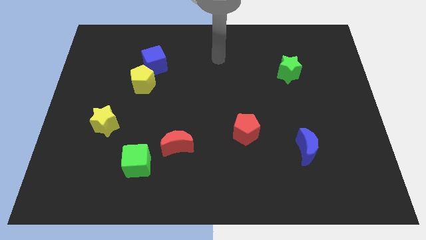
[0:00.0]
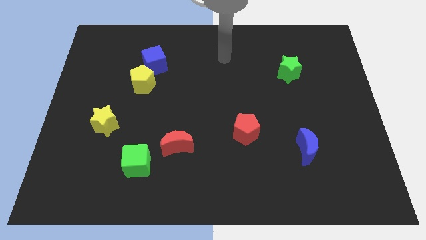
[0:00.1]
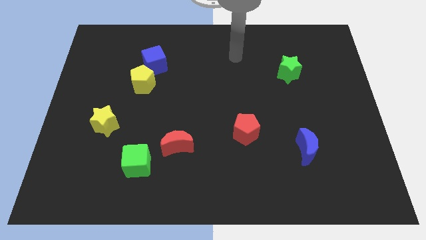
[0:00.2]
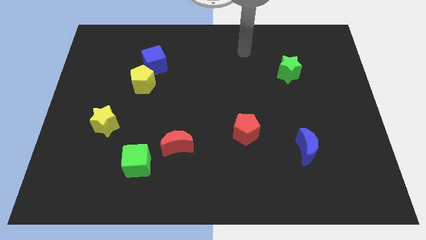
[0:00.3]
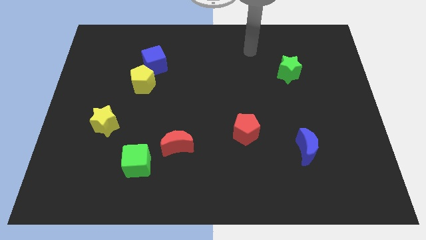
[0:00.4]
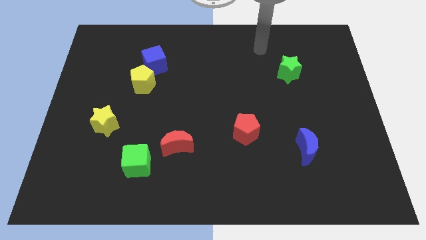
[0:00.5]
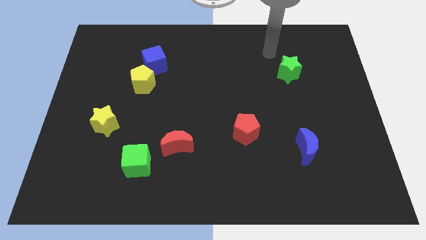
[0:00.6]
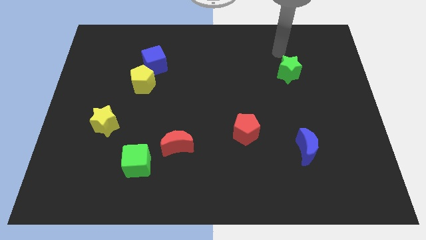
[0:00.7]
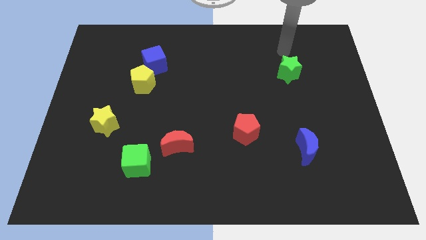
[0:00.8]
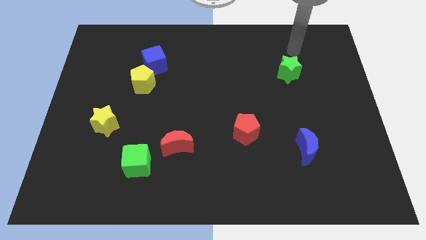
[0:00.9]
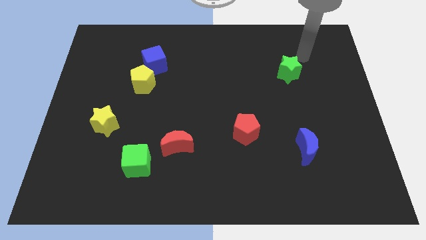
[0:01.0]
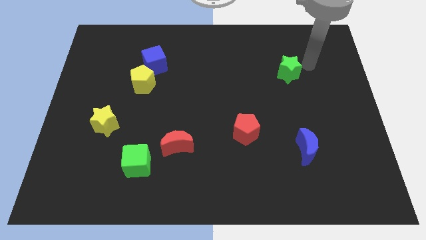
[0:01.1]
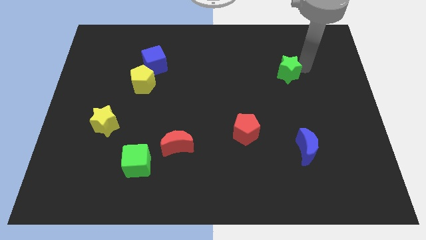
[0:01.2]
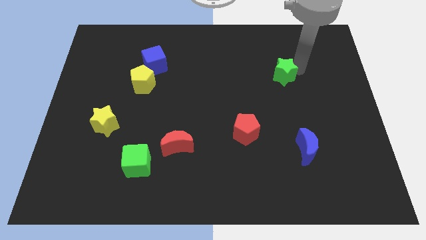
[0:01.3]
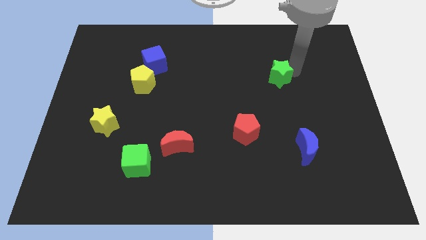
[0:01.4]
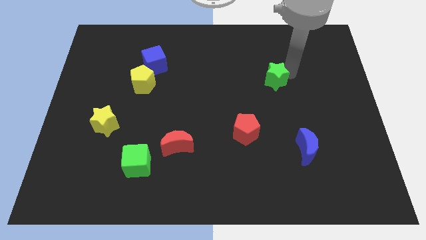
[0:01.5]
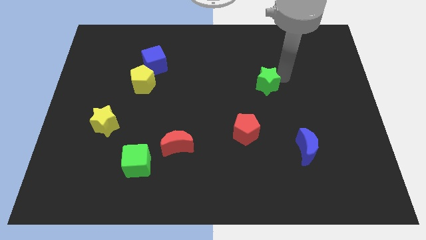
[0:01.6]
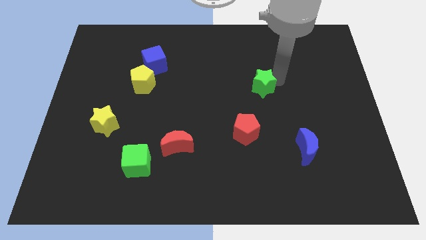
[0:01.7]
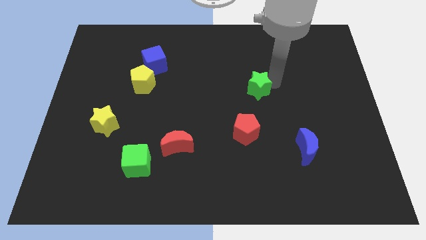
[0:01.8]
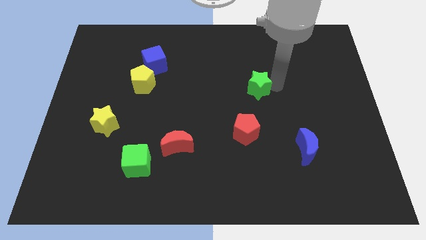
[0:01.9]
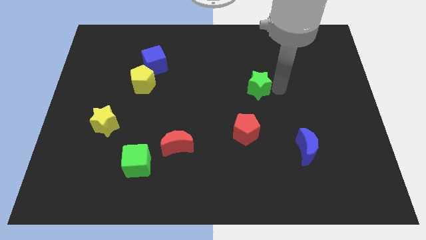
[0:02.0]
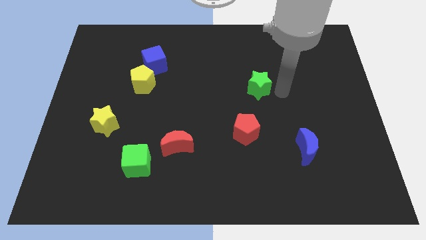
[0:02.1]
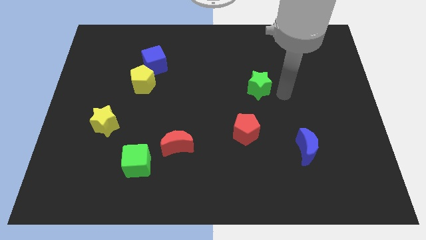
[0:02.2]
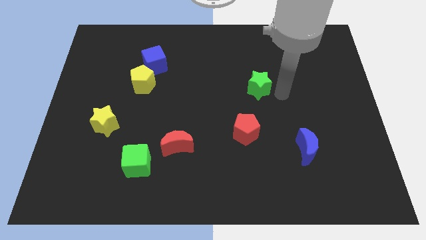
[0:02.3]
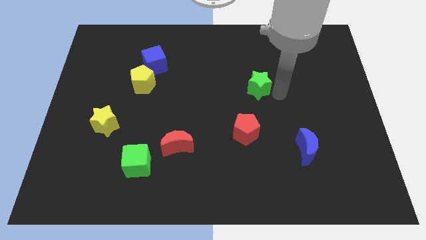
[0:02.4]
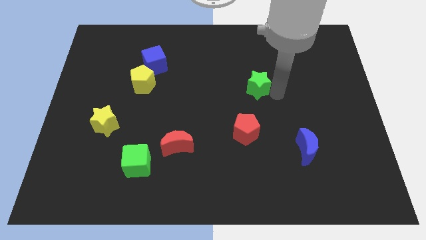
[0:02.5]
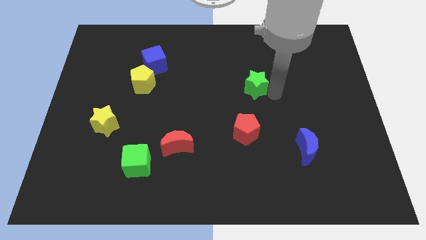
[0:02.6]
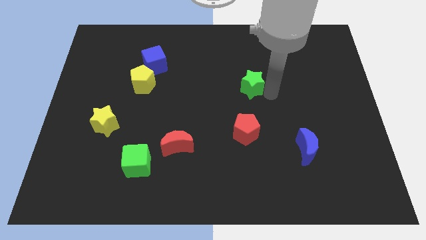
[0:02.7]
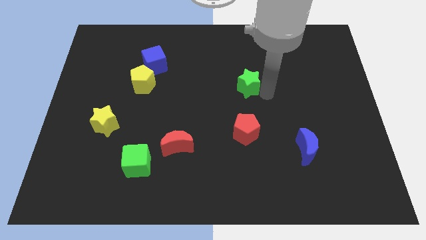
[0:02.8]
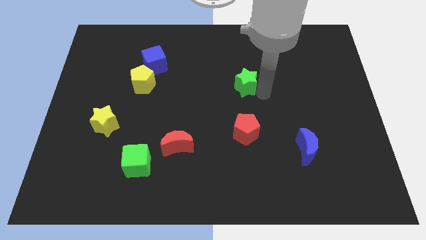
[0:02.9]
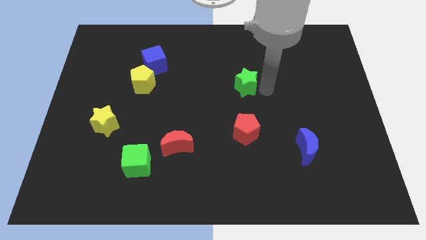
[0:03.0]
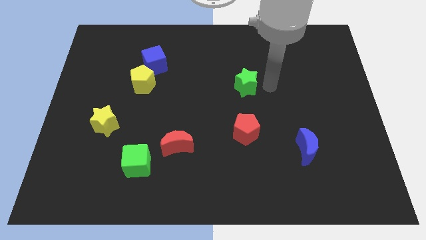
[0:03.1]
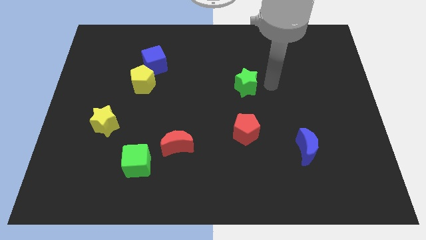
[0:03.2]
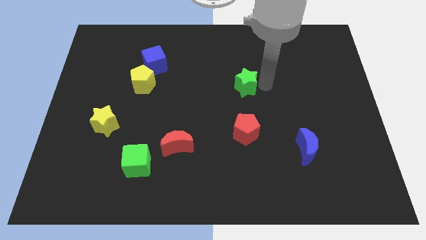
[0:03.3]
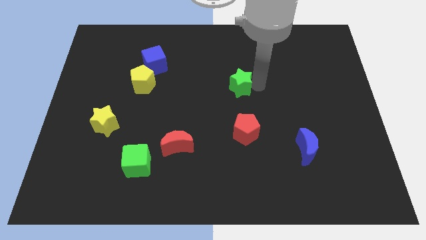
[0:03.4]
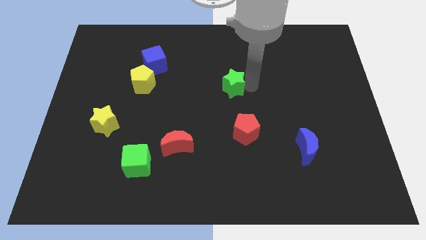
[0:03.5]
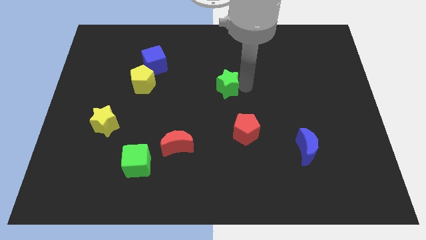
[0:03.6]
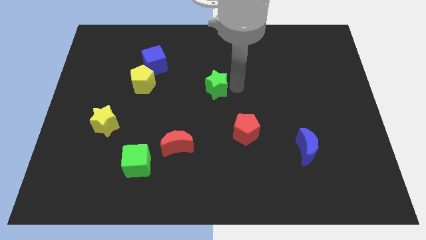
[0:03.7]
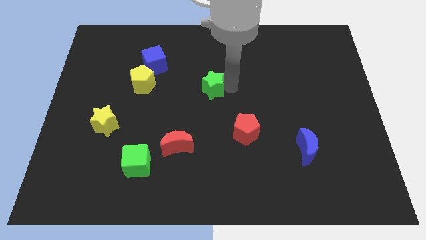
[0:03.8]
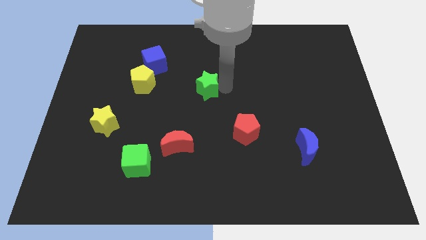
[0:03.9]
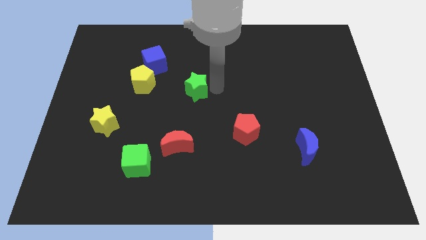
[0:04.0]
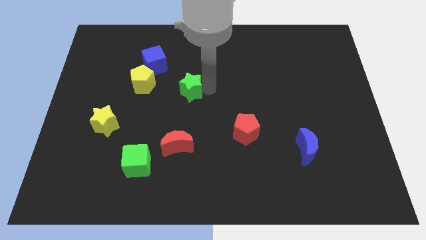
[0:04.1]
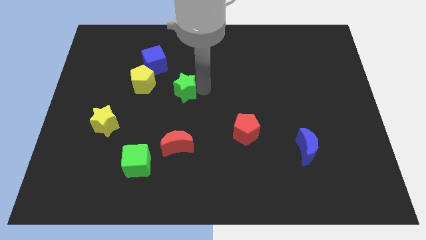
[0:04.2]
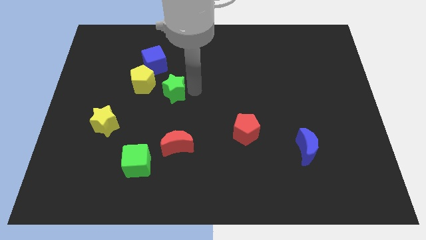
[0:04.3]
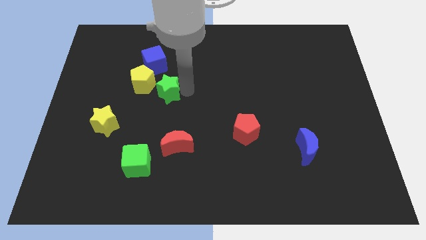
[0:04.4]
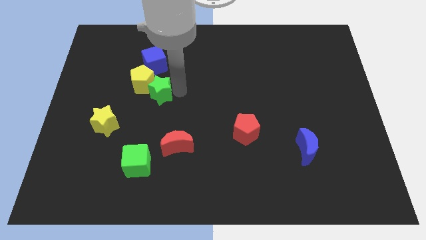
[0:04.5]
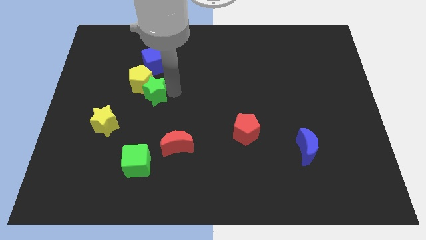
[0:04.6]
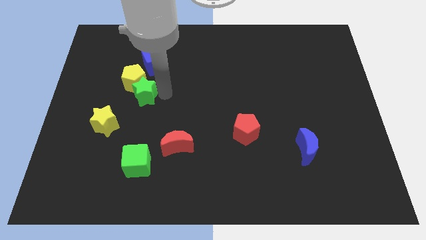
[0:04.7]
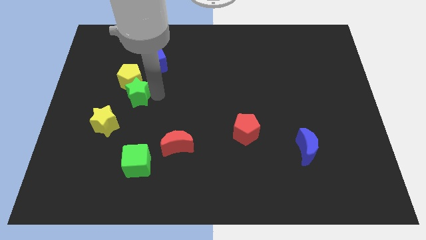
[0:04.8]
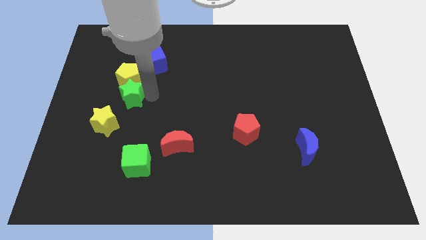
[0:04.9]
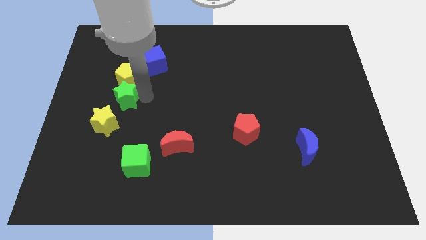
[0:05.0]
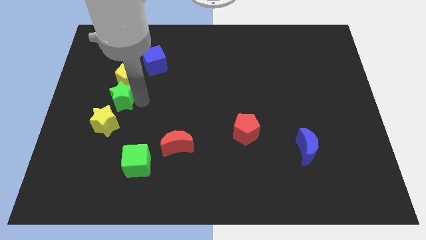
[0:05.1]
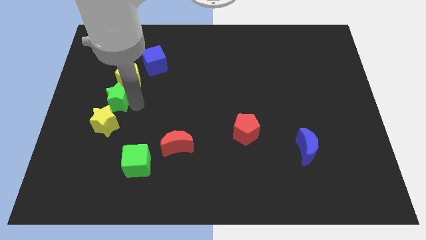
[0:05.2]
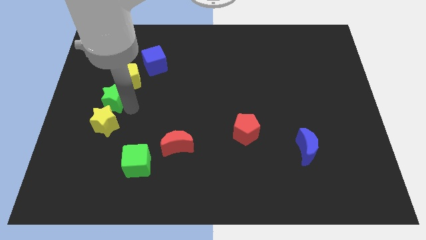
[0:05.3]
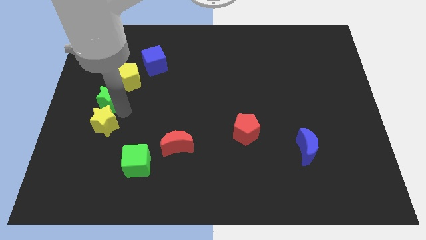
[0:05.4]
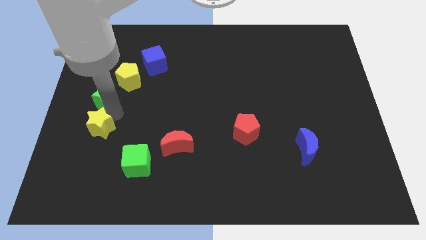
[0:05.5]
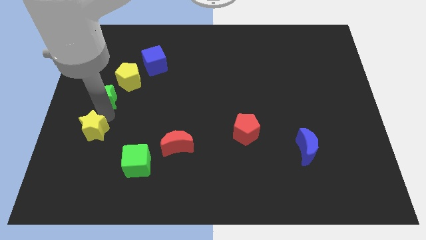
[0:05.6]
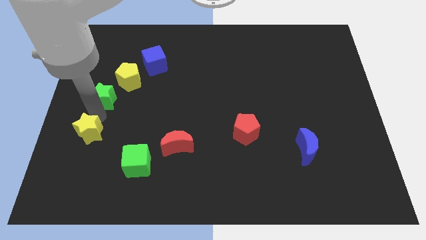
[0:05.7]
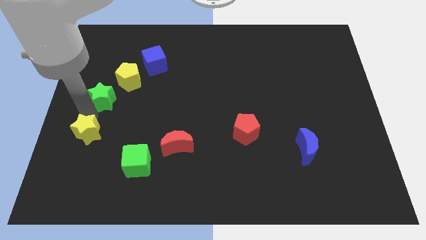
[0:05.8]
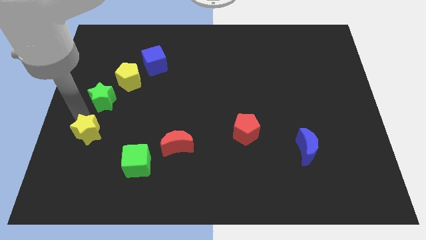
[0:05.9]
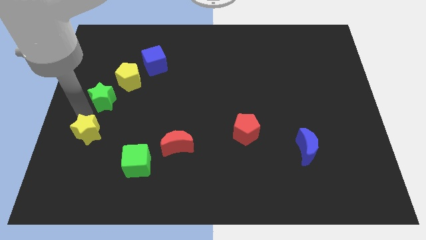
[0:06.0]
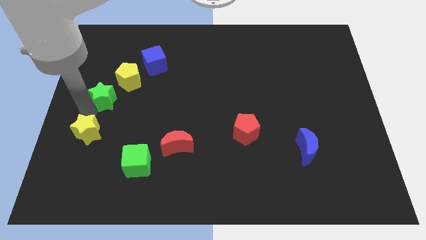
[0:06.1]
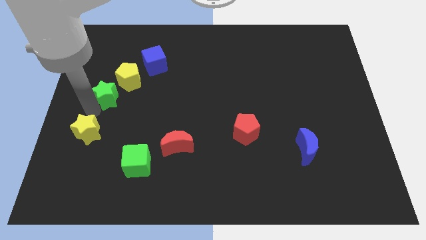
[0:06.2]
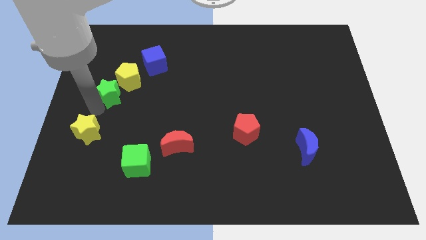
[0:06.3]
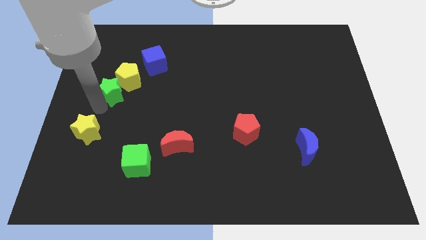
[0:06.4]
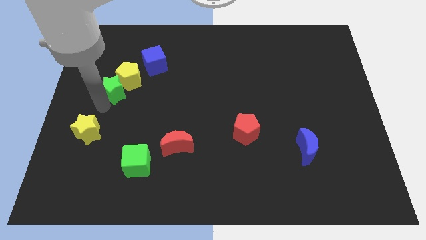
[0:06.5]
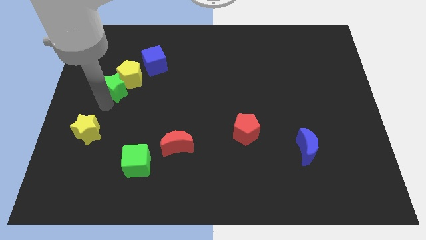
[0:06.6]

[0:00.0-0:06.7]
push the green star to the bottom left of the blue cube

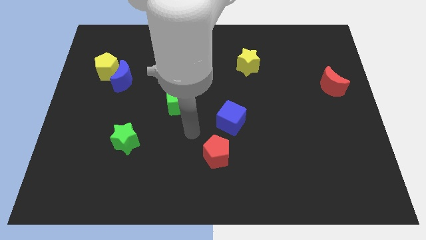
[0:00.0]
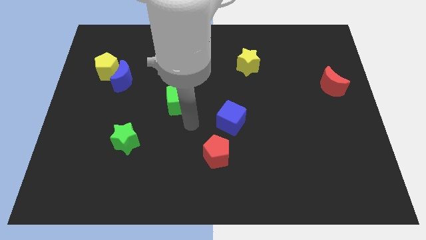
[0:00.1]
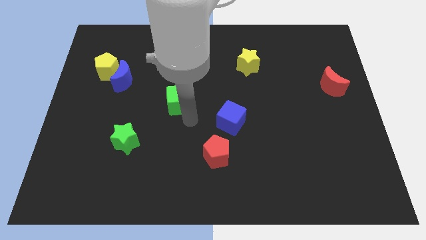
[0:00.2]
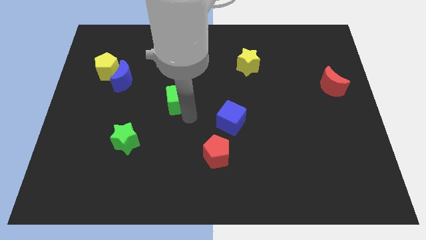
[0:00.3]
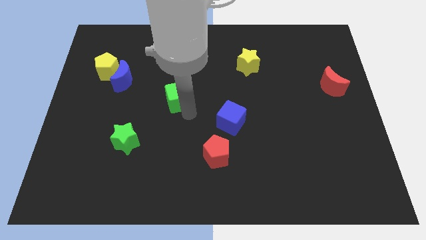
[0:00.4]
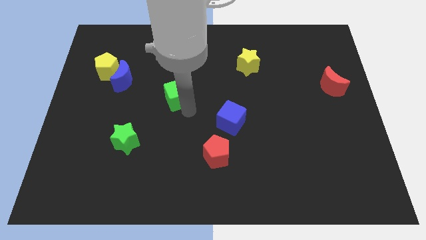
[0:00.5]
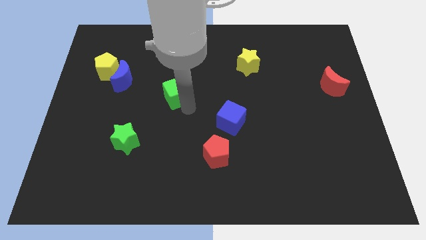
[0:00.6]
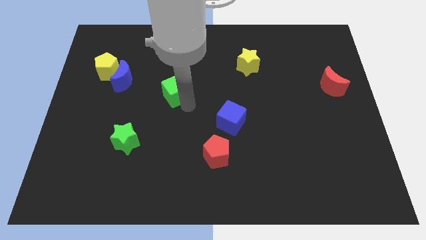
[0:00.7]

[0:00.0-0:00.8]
slide the green cube to the right of the blue moon
